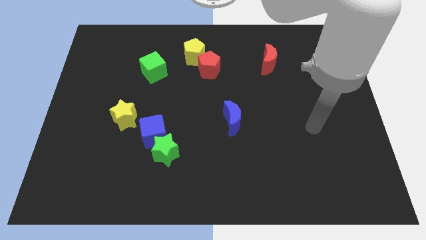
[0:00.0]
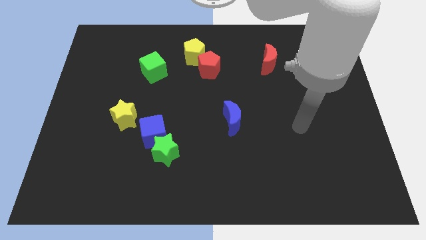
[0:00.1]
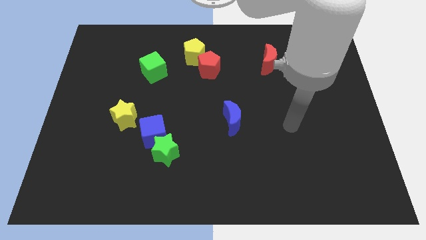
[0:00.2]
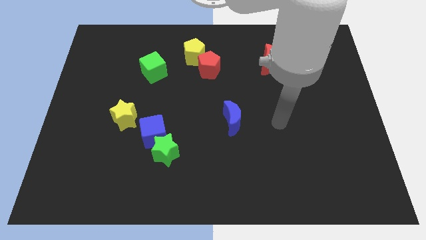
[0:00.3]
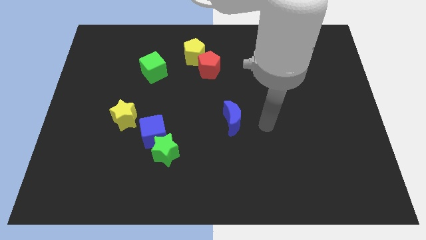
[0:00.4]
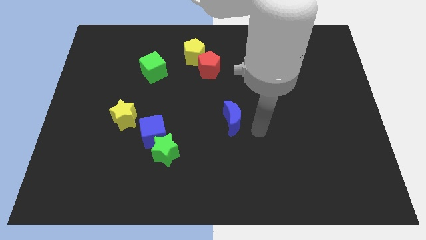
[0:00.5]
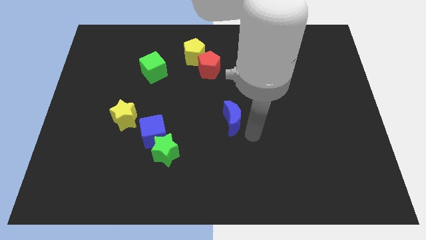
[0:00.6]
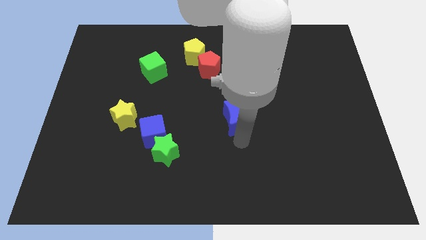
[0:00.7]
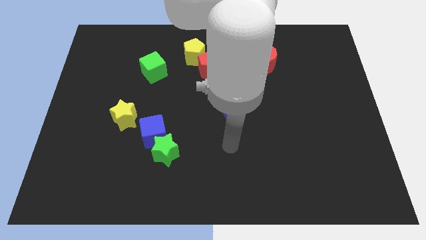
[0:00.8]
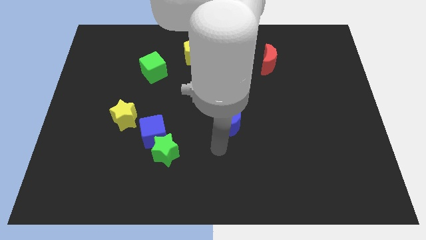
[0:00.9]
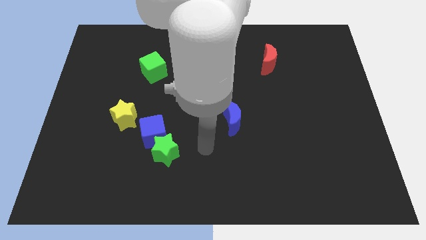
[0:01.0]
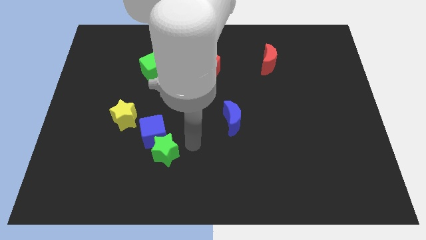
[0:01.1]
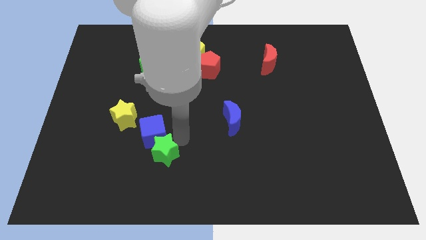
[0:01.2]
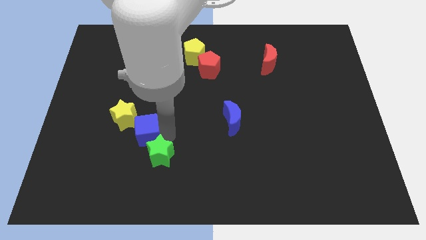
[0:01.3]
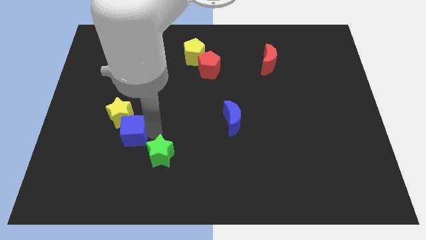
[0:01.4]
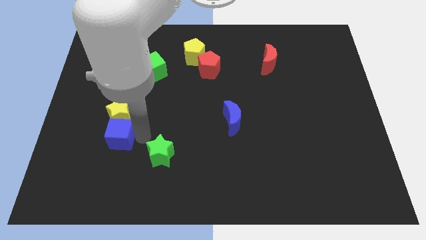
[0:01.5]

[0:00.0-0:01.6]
pull the green star apart from the blue cube

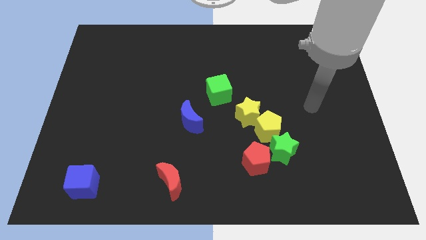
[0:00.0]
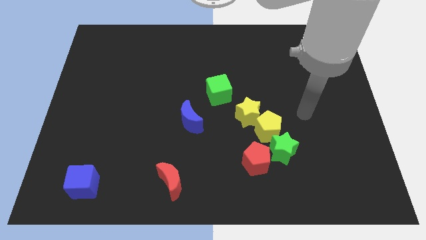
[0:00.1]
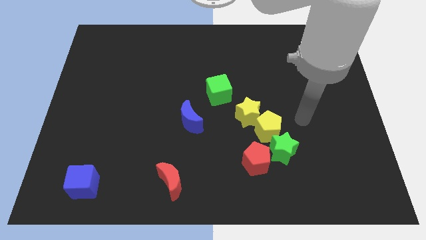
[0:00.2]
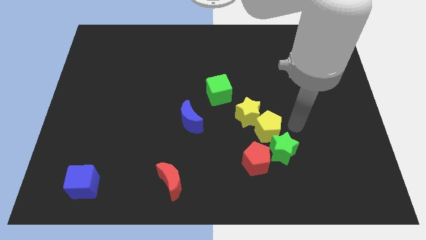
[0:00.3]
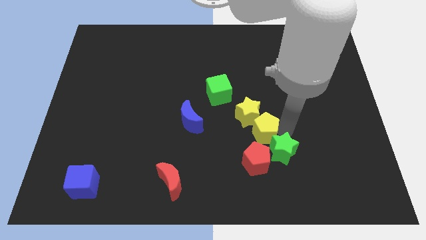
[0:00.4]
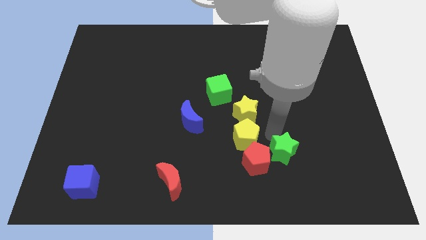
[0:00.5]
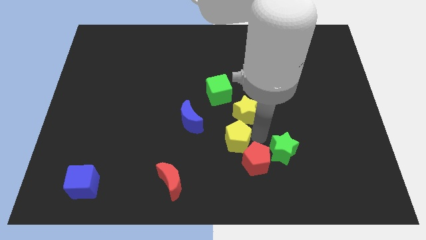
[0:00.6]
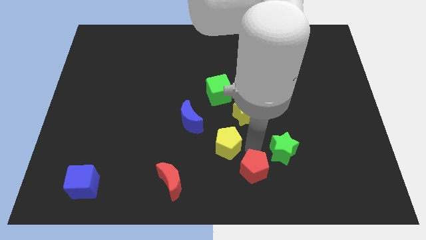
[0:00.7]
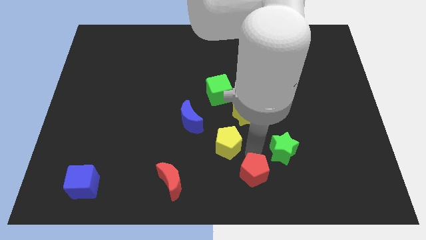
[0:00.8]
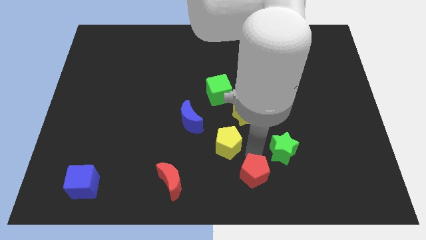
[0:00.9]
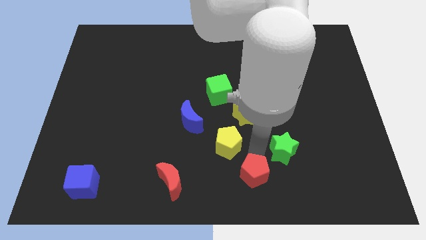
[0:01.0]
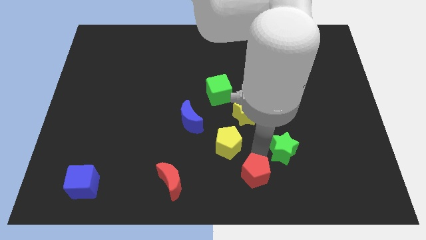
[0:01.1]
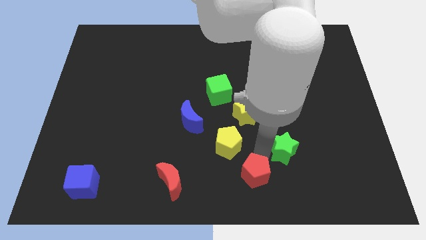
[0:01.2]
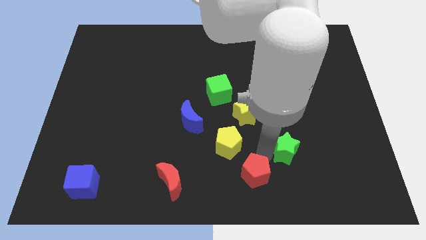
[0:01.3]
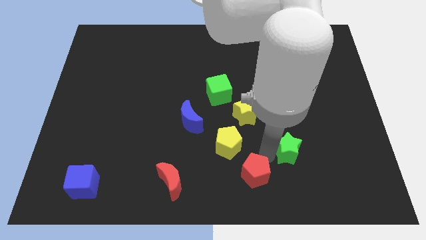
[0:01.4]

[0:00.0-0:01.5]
pull the green star apart from the yellow pentagon and red pentagon

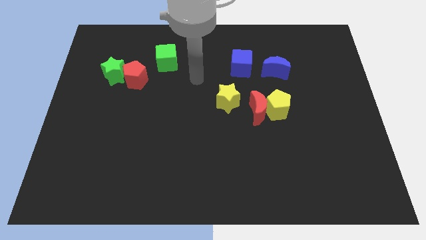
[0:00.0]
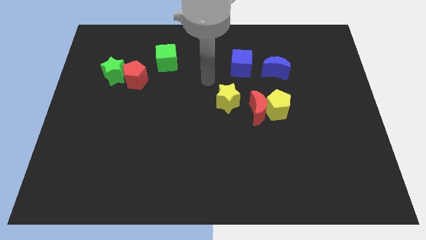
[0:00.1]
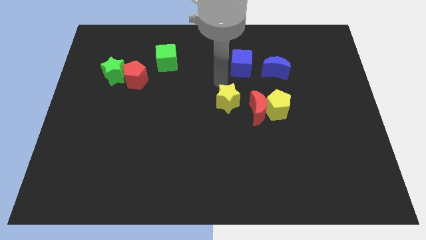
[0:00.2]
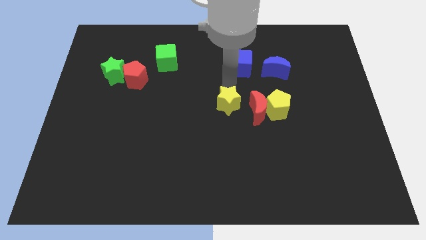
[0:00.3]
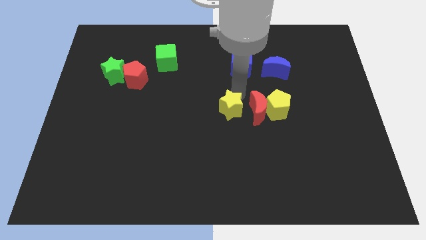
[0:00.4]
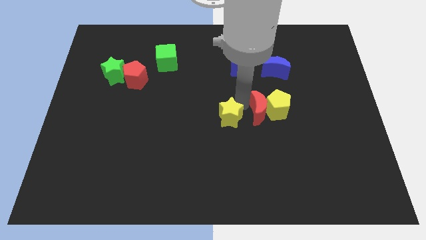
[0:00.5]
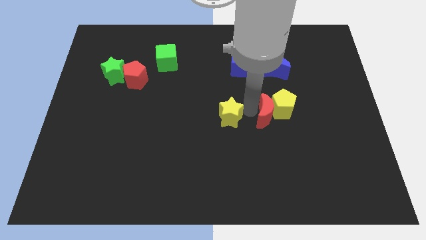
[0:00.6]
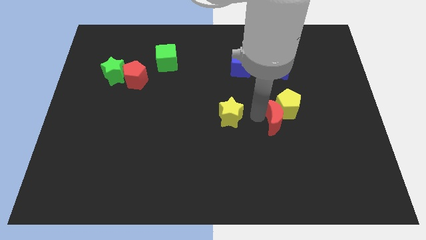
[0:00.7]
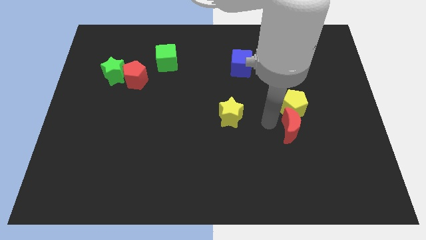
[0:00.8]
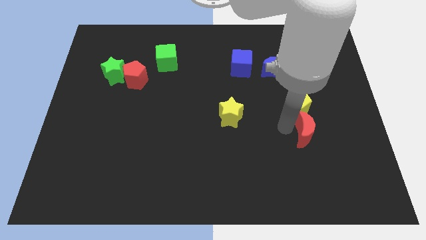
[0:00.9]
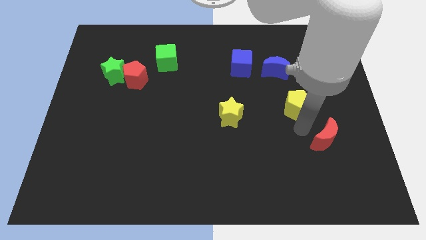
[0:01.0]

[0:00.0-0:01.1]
separate the yellow pentagon from the red moon

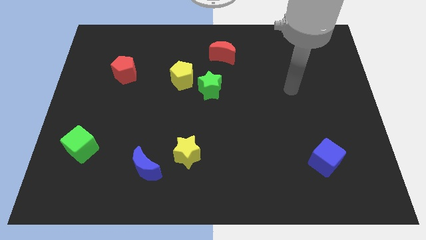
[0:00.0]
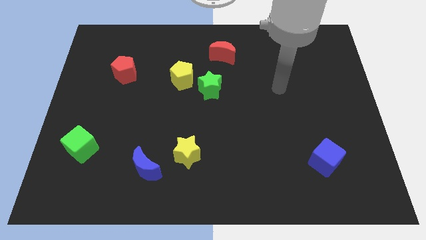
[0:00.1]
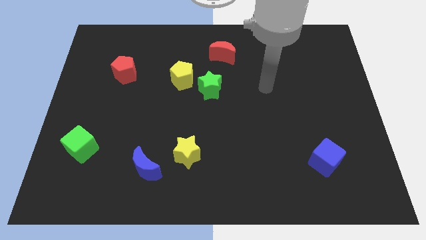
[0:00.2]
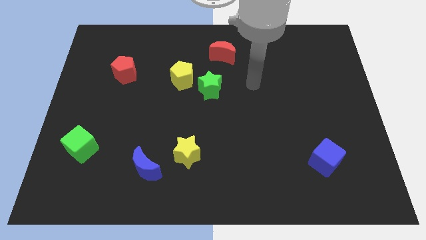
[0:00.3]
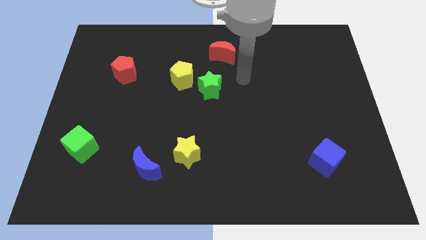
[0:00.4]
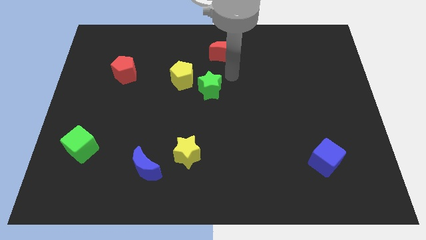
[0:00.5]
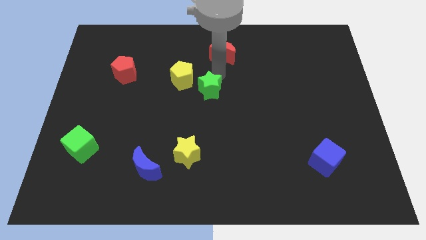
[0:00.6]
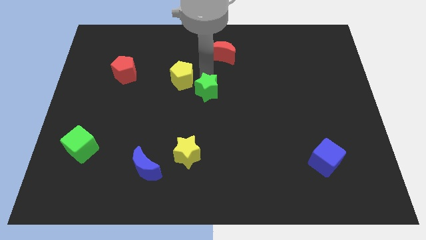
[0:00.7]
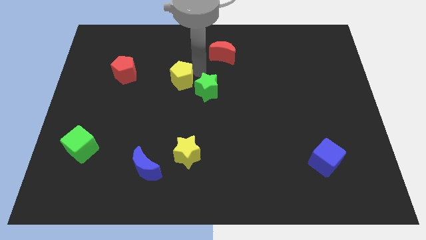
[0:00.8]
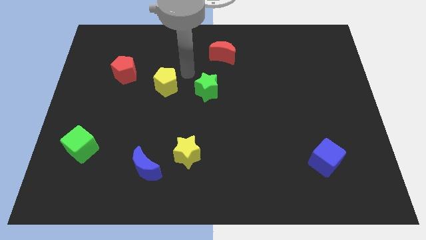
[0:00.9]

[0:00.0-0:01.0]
separate the green star from the yellow pentagon

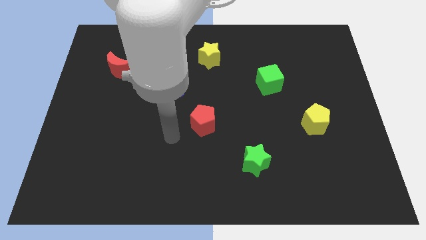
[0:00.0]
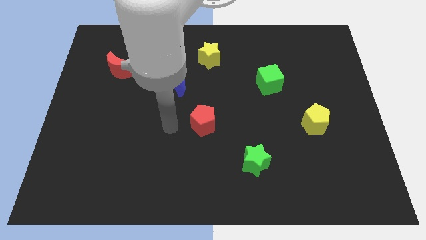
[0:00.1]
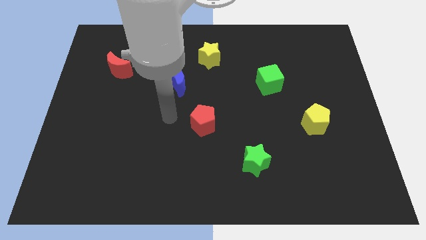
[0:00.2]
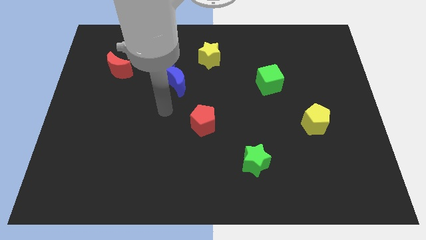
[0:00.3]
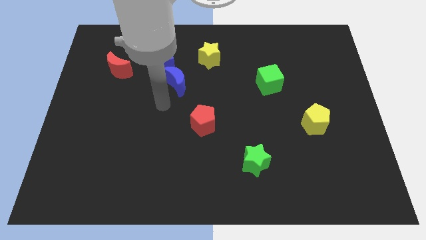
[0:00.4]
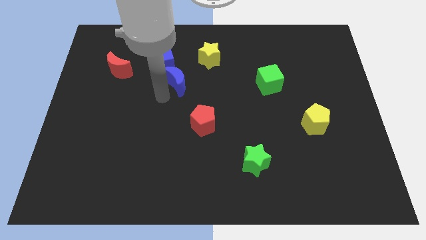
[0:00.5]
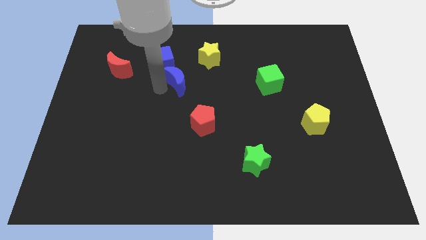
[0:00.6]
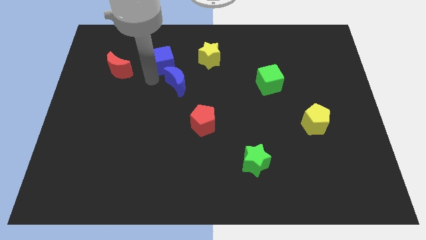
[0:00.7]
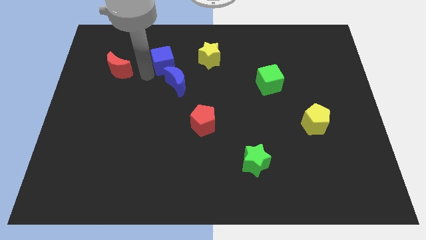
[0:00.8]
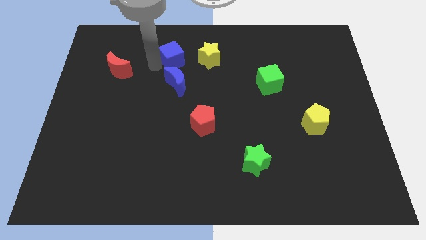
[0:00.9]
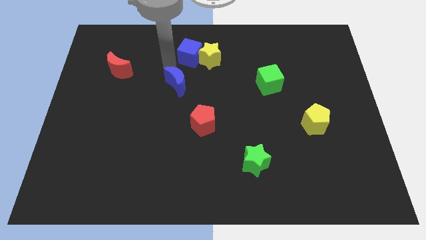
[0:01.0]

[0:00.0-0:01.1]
separate the blue moon from the blue cube

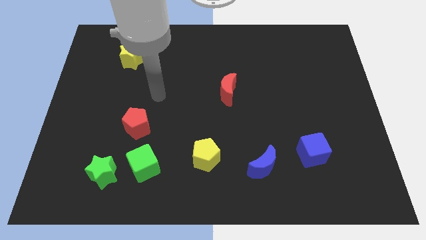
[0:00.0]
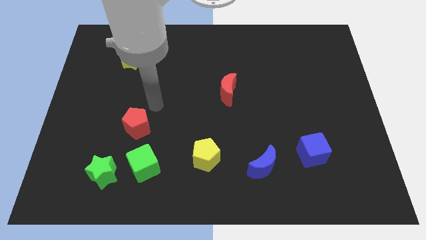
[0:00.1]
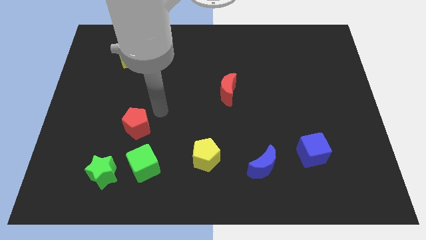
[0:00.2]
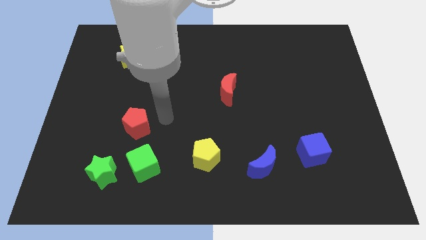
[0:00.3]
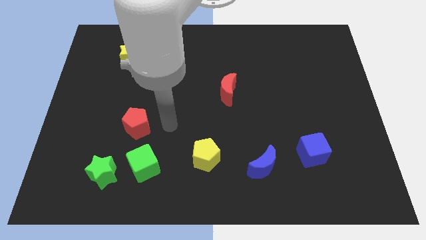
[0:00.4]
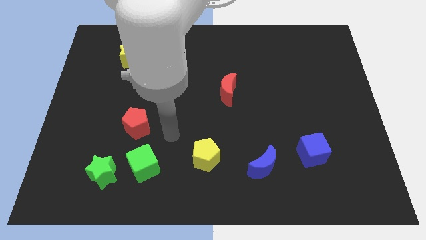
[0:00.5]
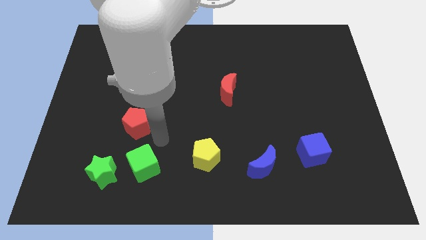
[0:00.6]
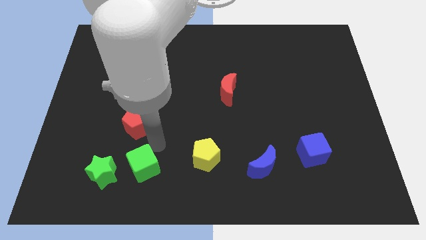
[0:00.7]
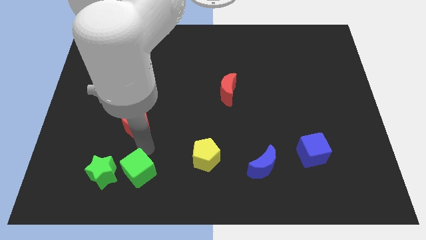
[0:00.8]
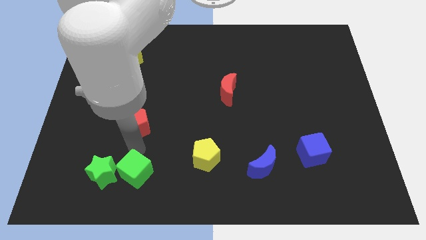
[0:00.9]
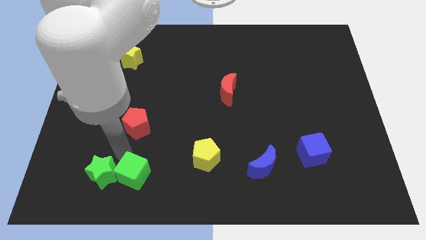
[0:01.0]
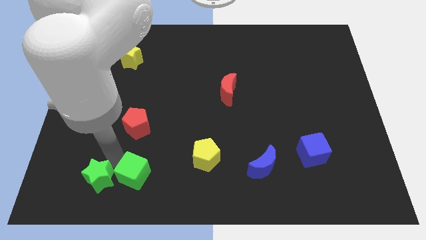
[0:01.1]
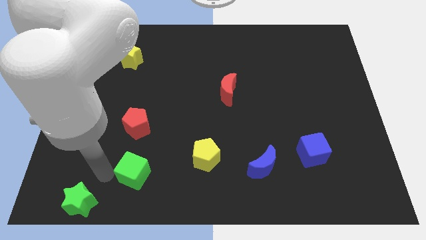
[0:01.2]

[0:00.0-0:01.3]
separate the green cube from the green star

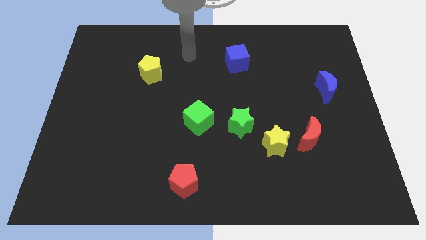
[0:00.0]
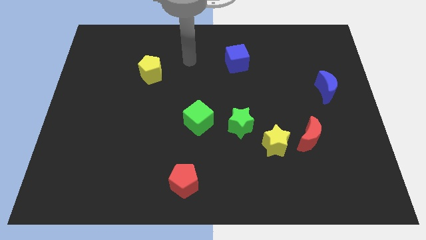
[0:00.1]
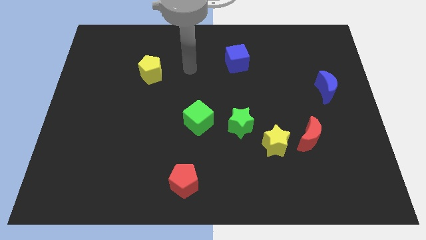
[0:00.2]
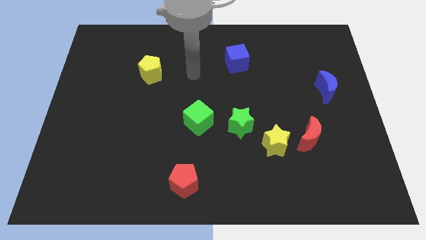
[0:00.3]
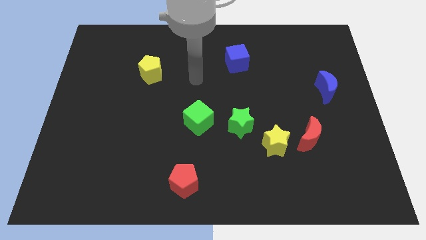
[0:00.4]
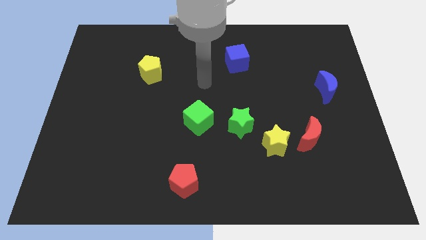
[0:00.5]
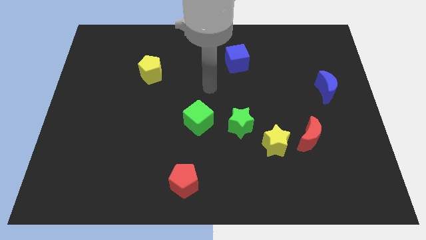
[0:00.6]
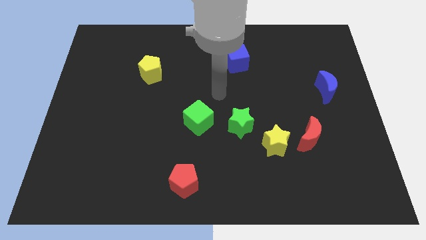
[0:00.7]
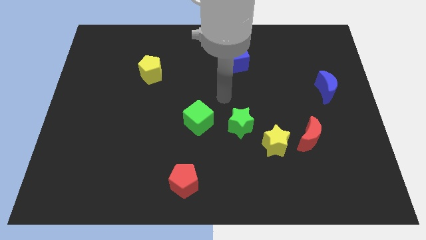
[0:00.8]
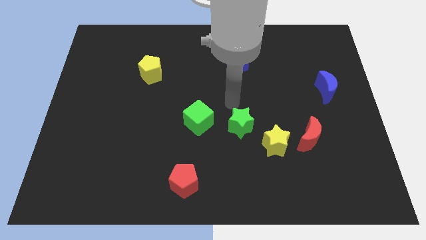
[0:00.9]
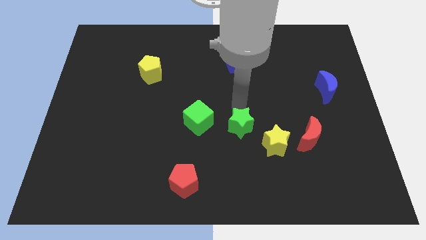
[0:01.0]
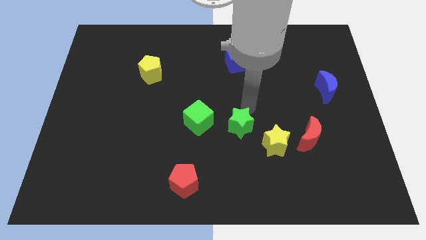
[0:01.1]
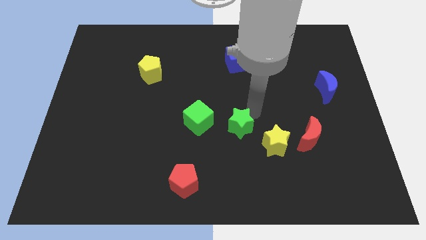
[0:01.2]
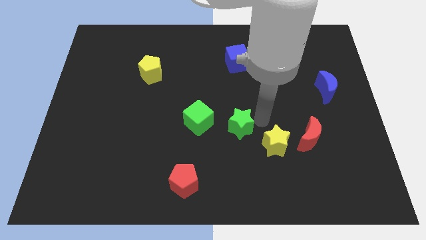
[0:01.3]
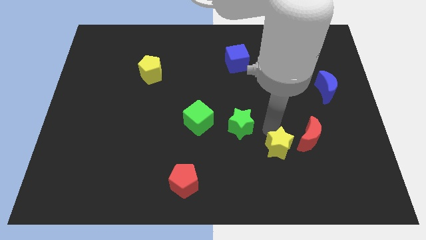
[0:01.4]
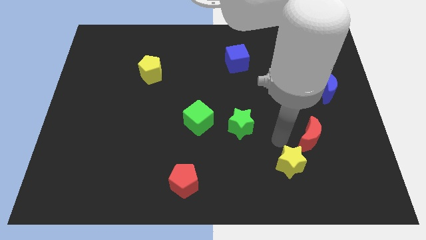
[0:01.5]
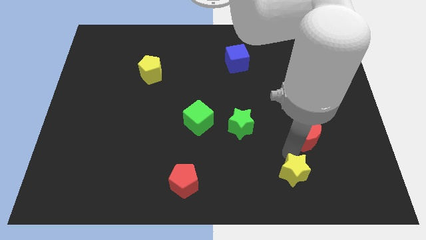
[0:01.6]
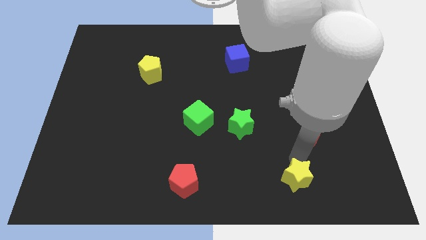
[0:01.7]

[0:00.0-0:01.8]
move the red moon away from the yellow star

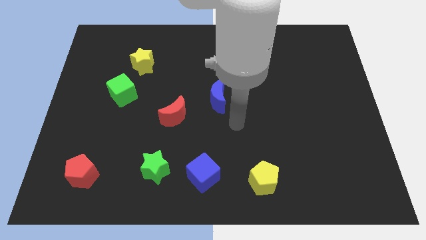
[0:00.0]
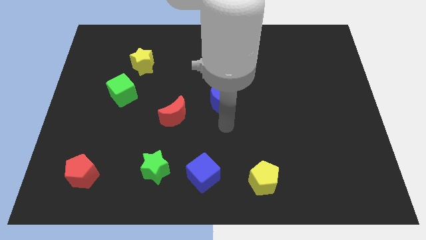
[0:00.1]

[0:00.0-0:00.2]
separate the blue cube from the green star
